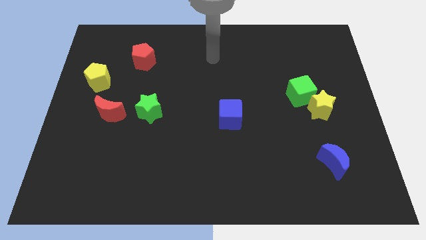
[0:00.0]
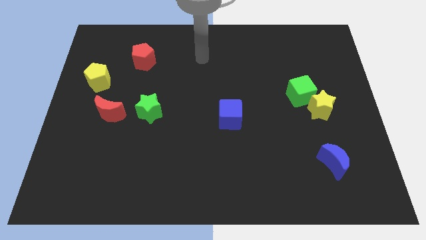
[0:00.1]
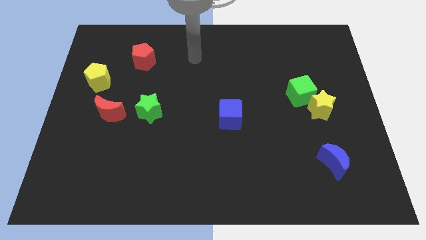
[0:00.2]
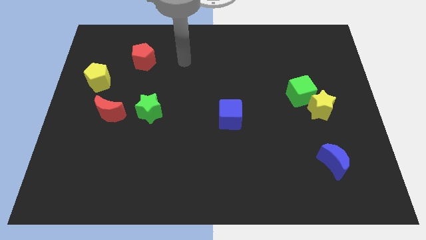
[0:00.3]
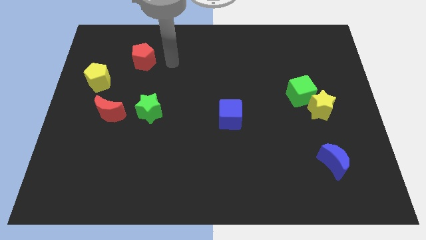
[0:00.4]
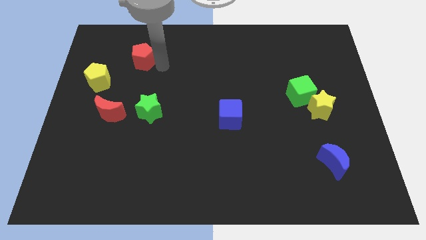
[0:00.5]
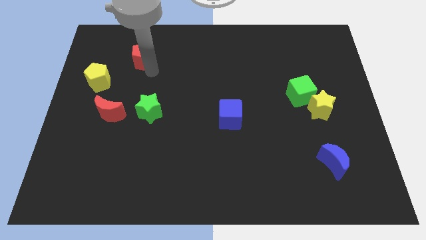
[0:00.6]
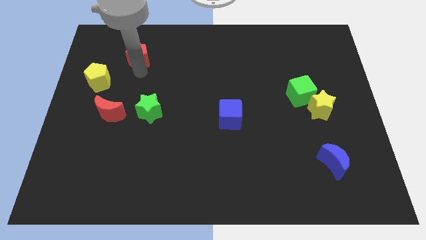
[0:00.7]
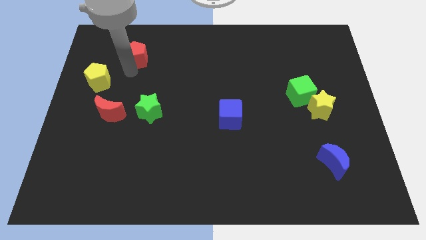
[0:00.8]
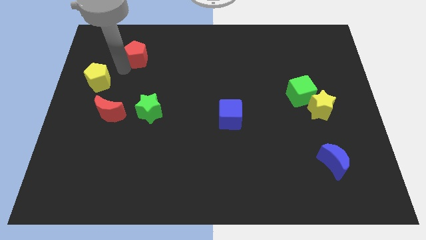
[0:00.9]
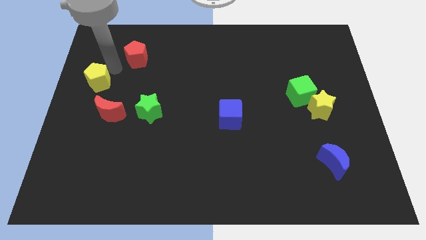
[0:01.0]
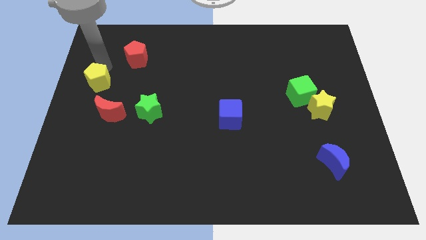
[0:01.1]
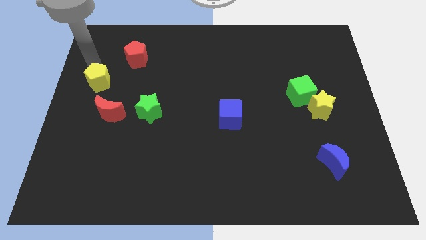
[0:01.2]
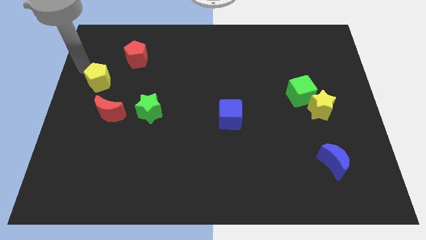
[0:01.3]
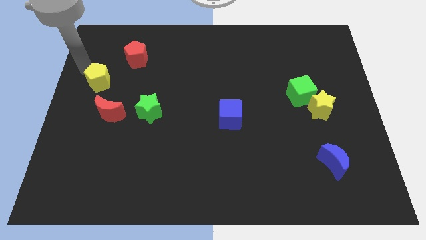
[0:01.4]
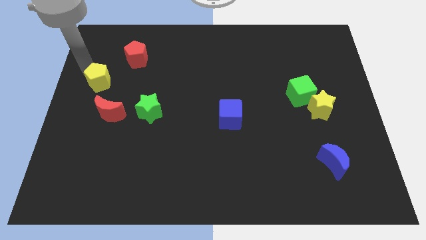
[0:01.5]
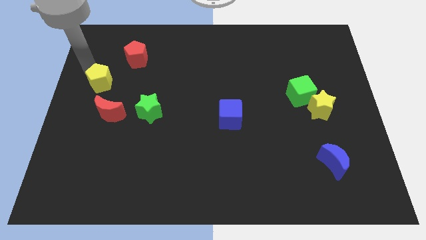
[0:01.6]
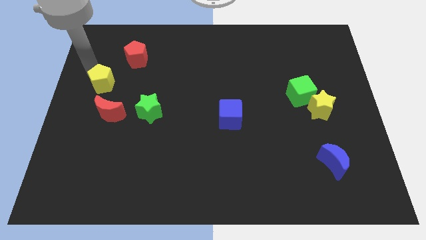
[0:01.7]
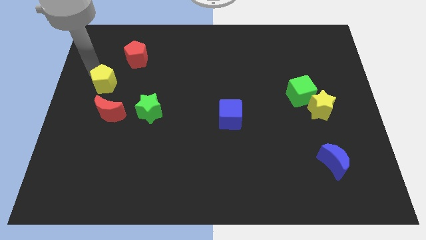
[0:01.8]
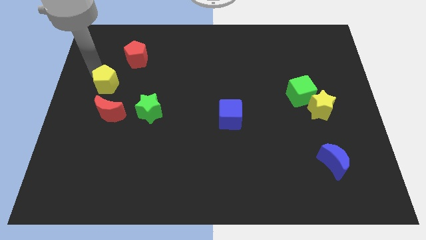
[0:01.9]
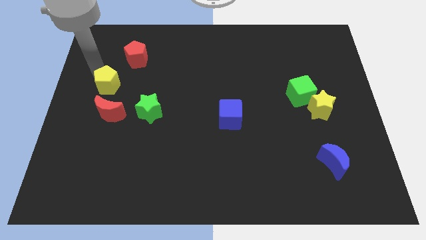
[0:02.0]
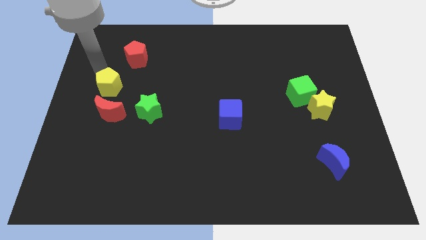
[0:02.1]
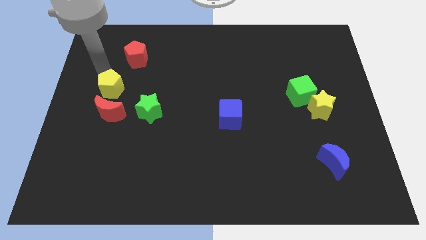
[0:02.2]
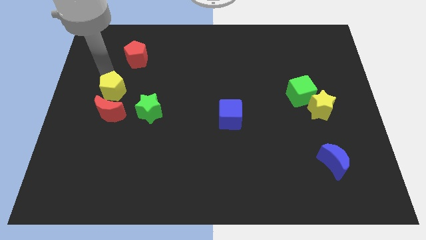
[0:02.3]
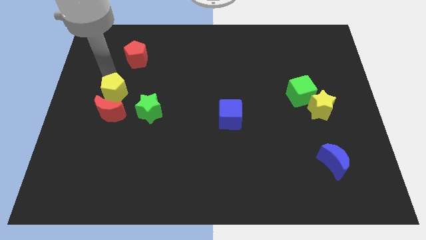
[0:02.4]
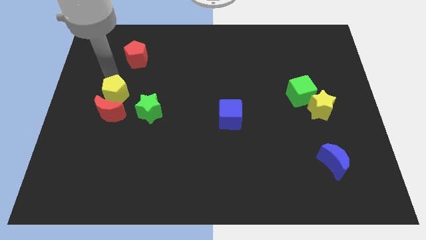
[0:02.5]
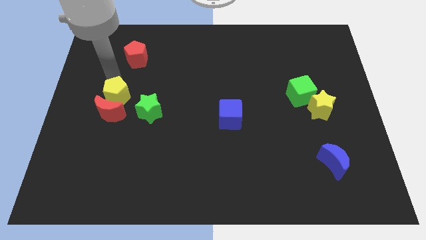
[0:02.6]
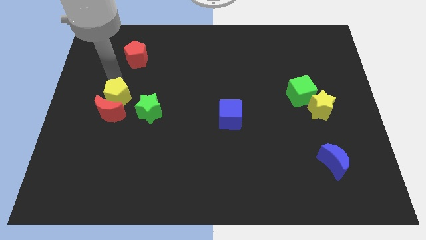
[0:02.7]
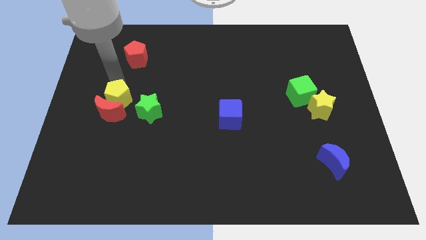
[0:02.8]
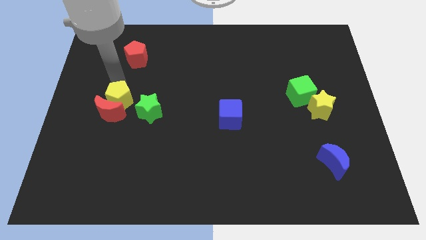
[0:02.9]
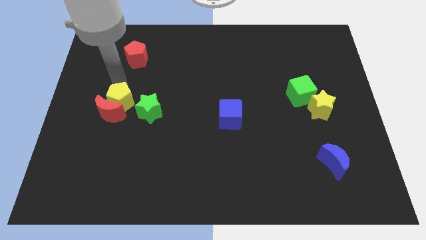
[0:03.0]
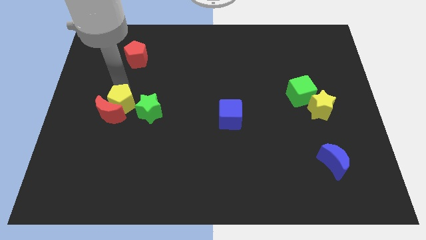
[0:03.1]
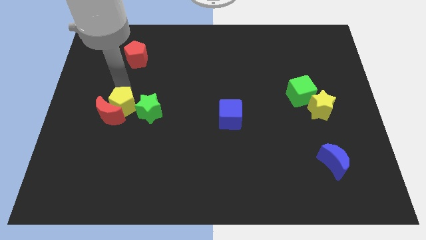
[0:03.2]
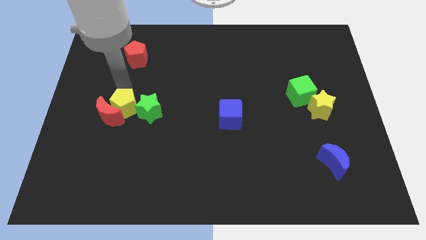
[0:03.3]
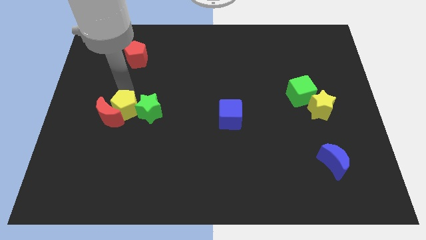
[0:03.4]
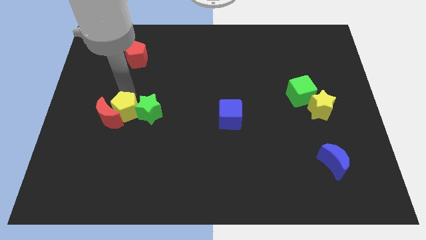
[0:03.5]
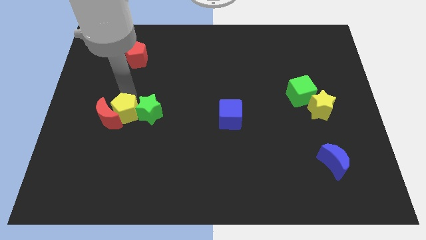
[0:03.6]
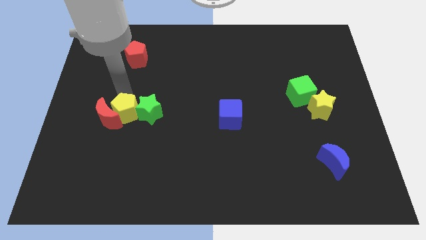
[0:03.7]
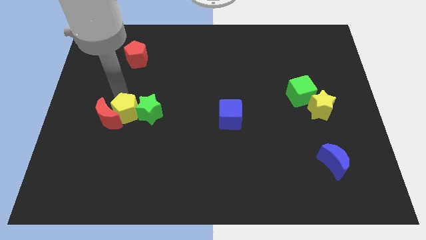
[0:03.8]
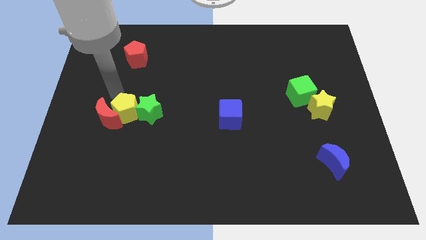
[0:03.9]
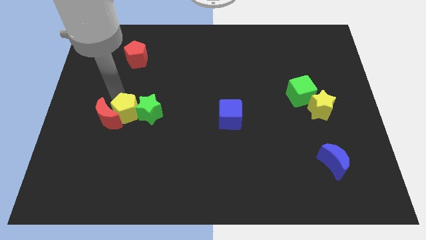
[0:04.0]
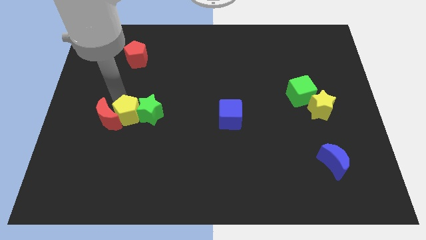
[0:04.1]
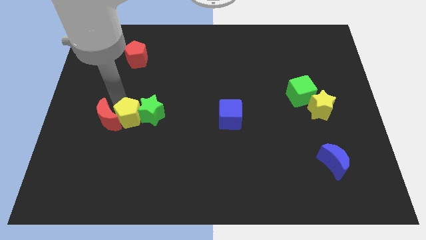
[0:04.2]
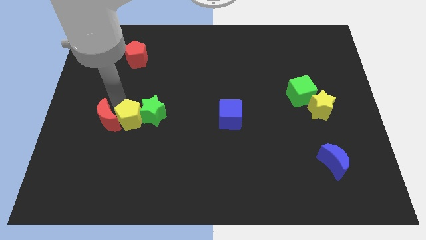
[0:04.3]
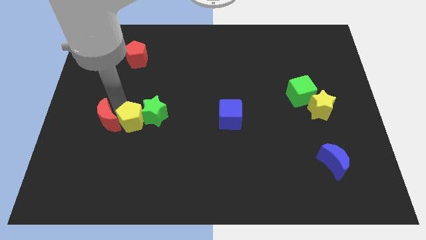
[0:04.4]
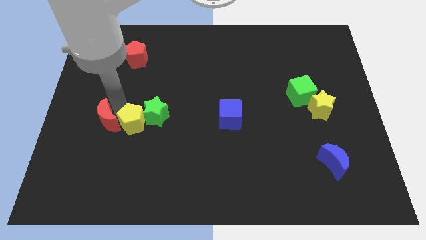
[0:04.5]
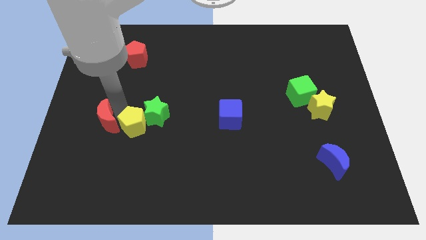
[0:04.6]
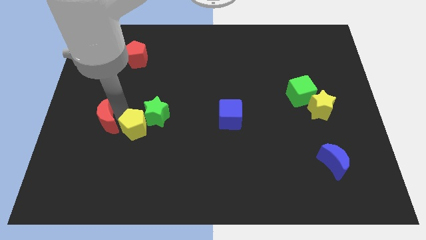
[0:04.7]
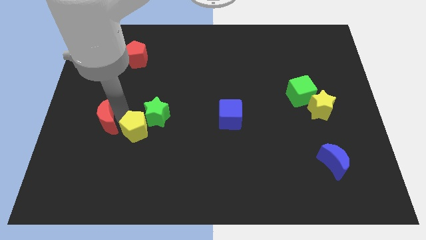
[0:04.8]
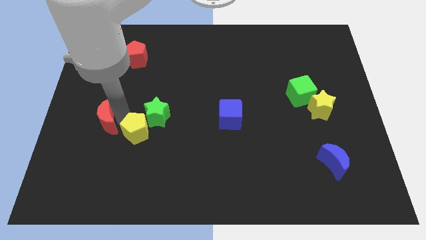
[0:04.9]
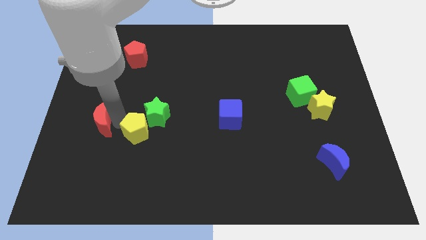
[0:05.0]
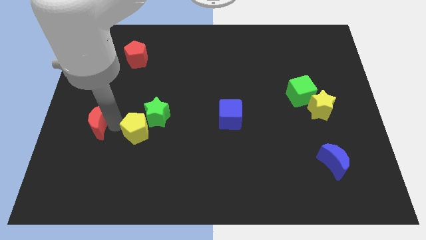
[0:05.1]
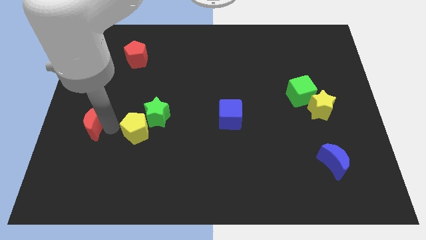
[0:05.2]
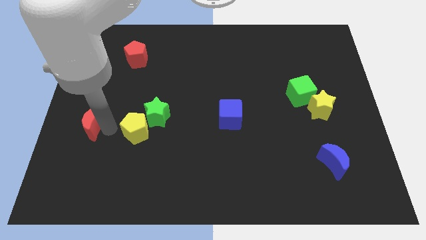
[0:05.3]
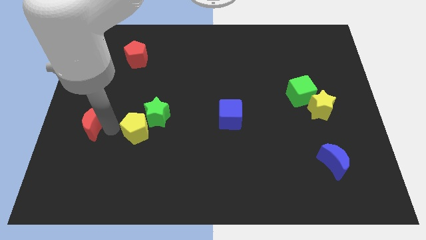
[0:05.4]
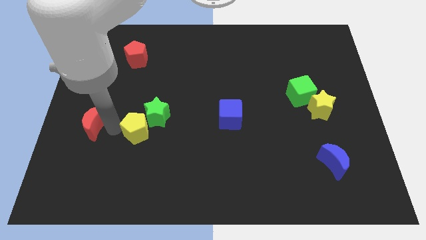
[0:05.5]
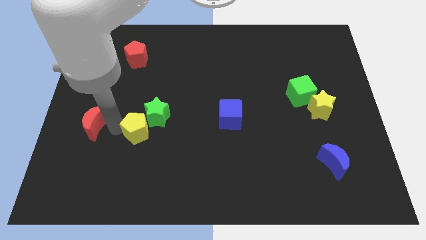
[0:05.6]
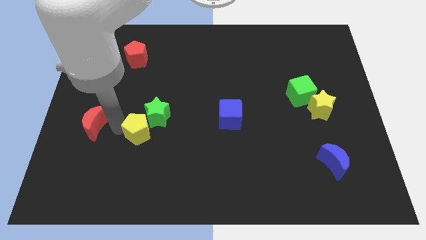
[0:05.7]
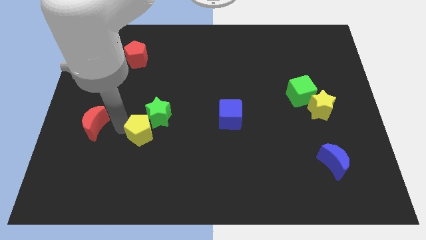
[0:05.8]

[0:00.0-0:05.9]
slide the yellow pentagon down and right

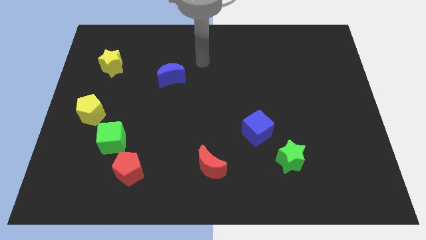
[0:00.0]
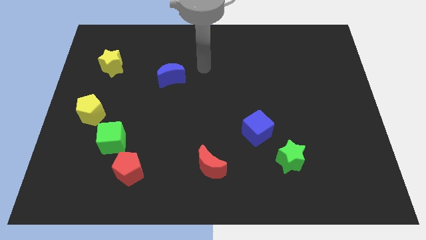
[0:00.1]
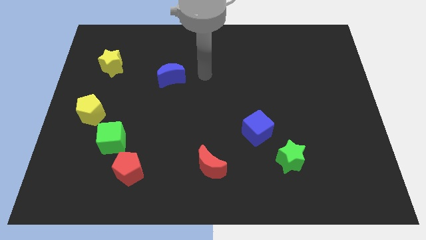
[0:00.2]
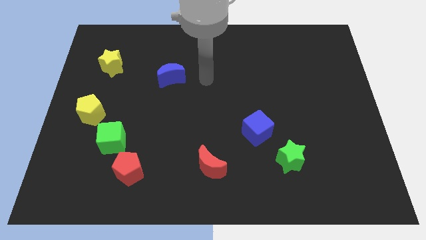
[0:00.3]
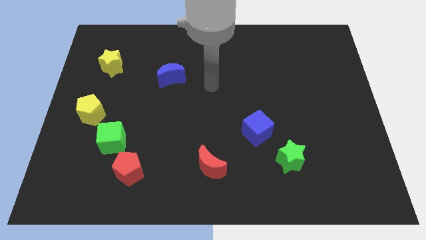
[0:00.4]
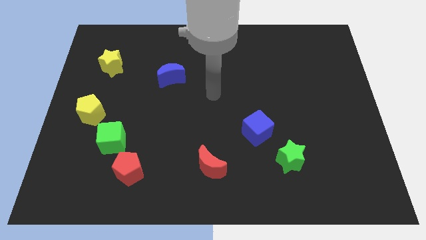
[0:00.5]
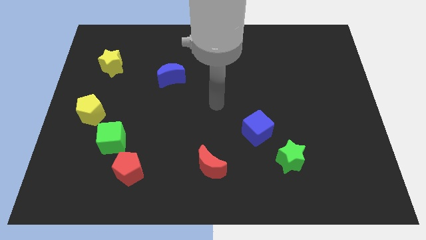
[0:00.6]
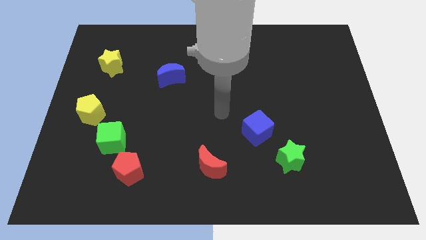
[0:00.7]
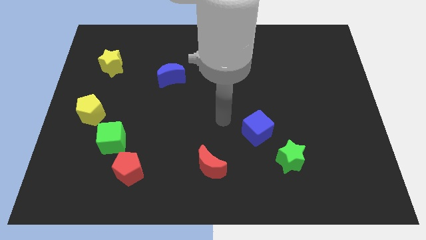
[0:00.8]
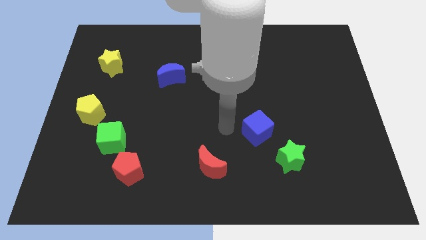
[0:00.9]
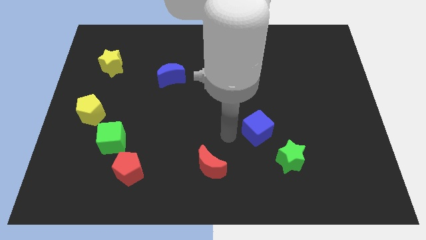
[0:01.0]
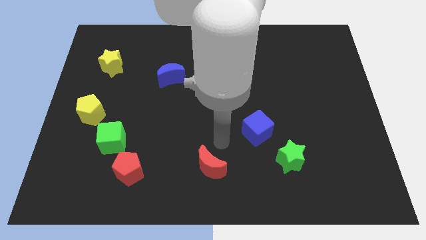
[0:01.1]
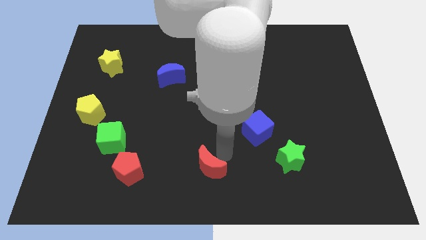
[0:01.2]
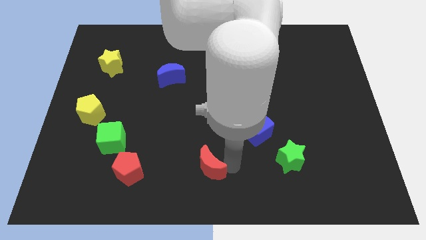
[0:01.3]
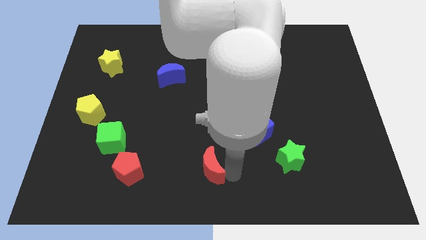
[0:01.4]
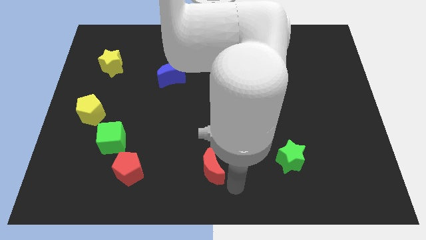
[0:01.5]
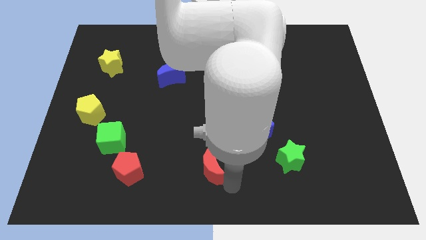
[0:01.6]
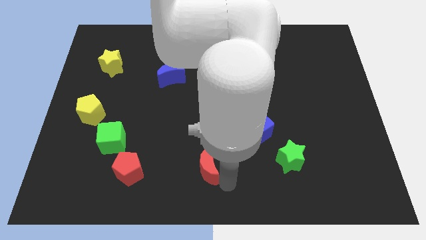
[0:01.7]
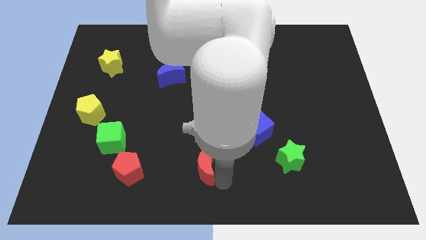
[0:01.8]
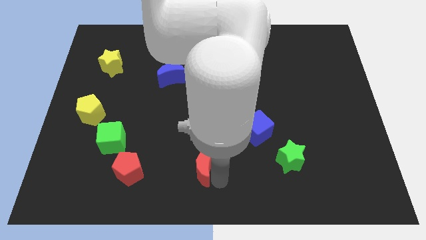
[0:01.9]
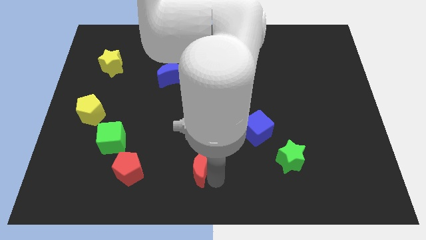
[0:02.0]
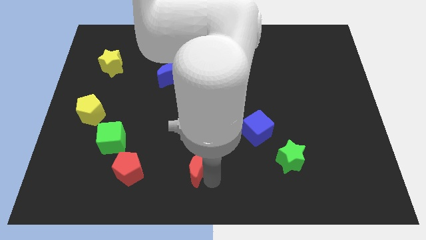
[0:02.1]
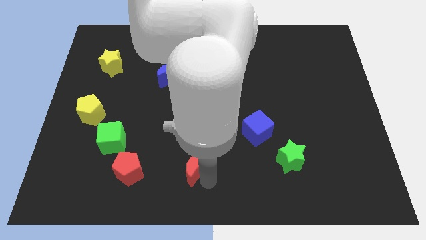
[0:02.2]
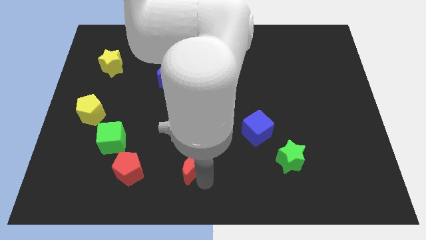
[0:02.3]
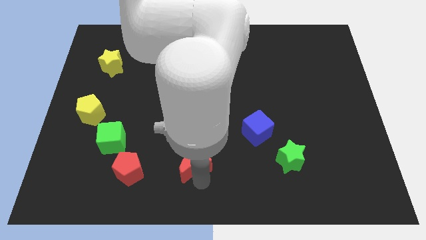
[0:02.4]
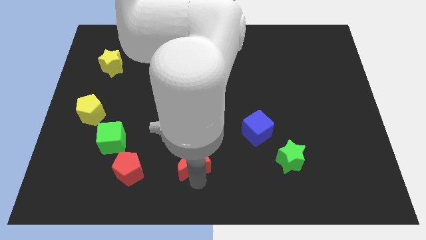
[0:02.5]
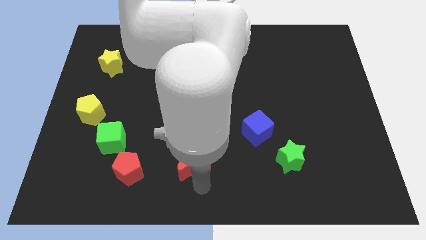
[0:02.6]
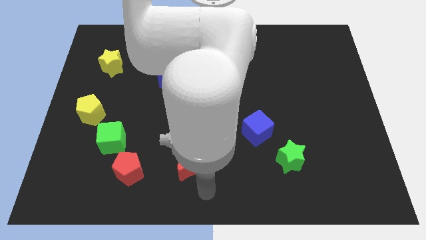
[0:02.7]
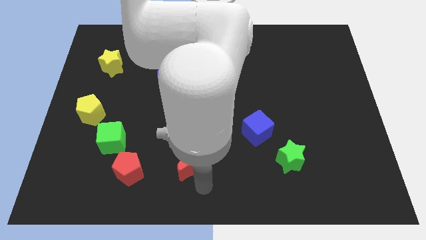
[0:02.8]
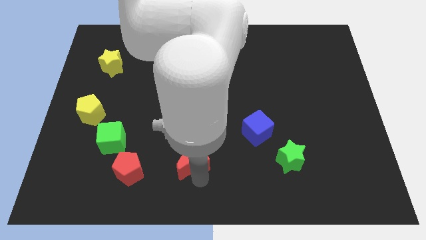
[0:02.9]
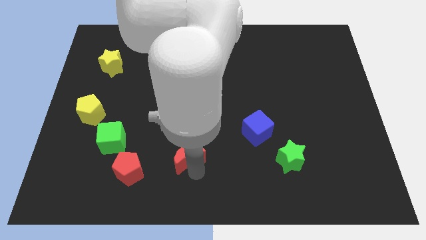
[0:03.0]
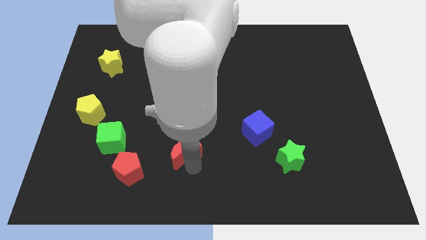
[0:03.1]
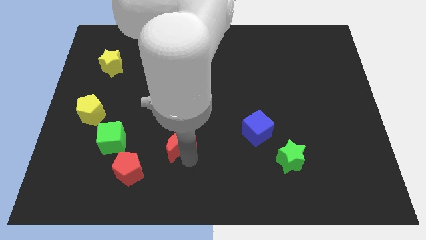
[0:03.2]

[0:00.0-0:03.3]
push the red moon up and then left slightly
